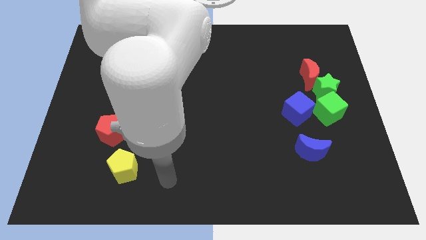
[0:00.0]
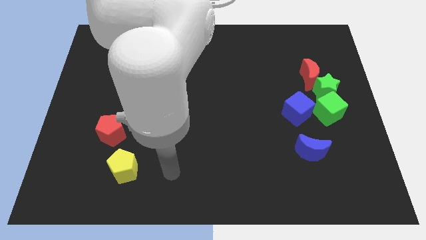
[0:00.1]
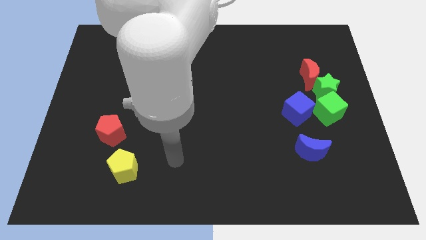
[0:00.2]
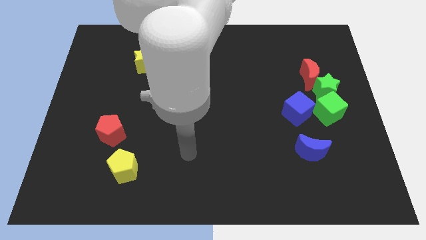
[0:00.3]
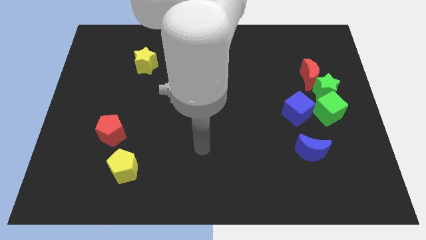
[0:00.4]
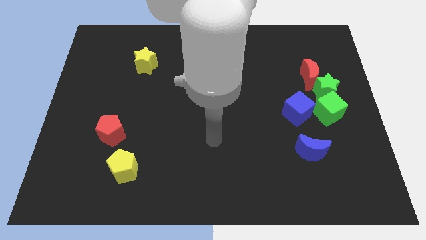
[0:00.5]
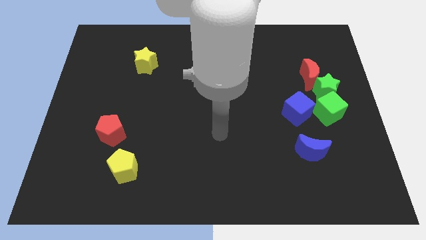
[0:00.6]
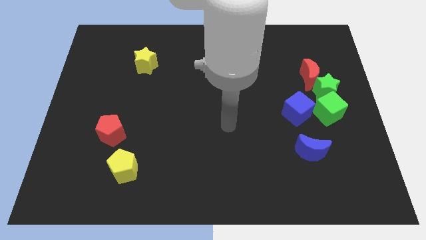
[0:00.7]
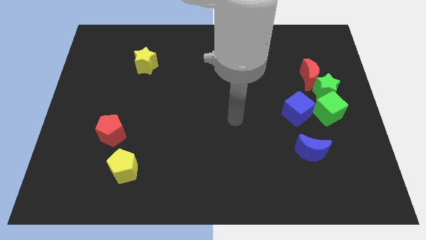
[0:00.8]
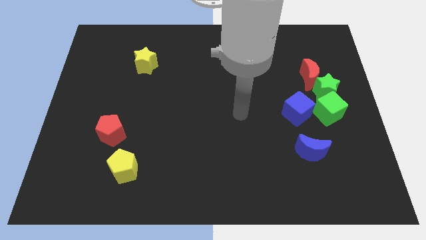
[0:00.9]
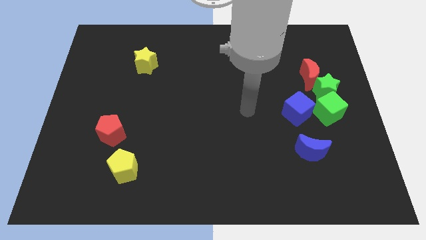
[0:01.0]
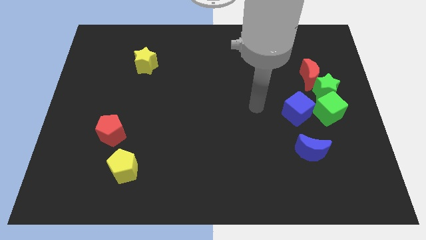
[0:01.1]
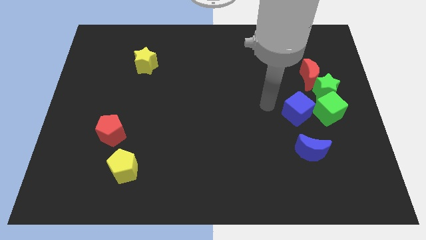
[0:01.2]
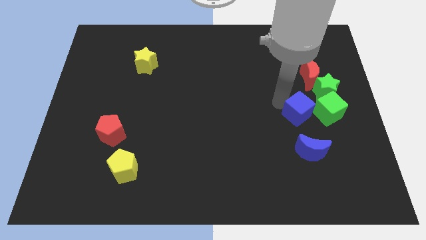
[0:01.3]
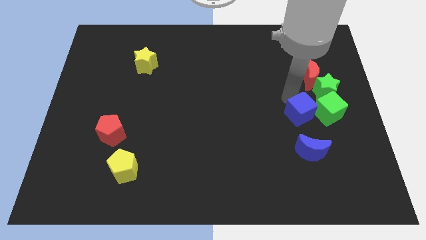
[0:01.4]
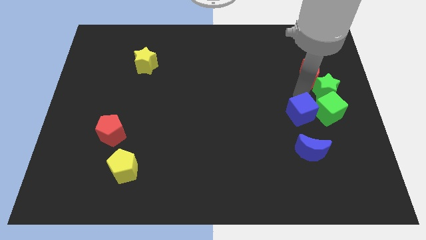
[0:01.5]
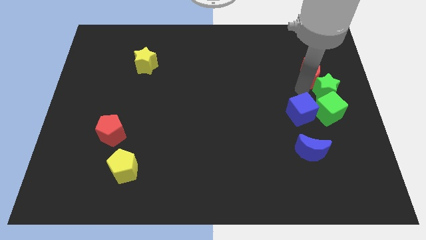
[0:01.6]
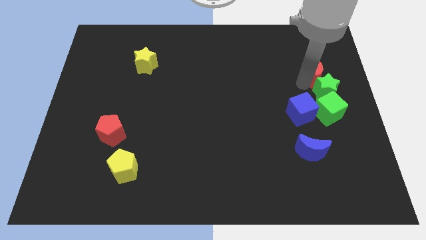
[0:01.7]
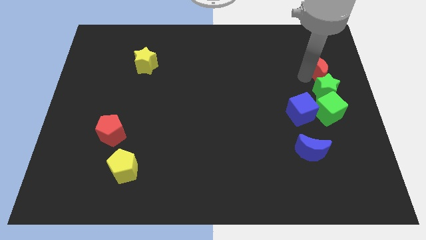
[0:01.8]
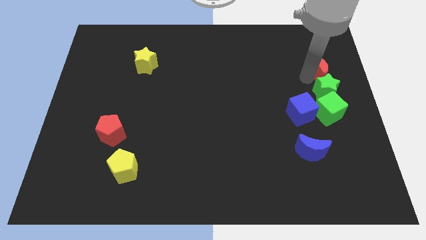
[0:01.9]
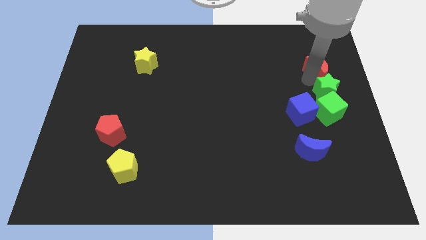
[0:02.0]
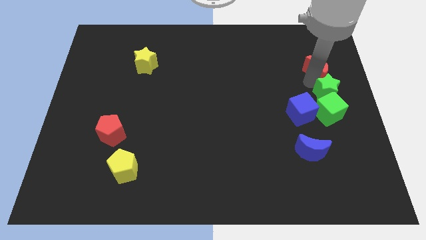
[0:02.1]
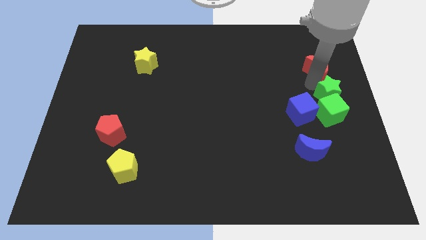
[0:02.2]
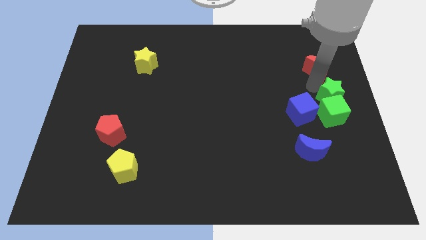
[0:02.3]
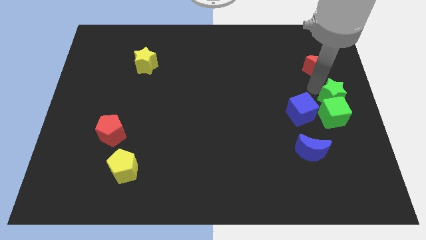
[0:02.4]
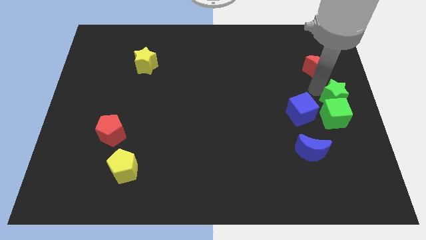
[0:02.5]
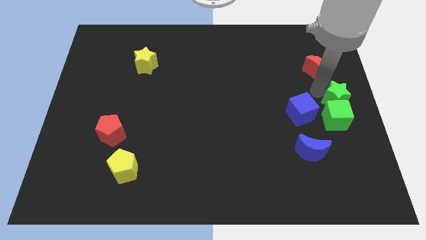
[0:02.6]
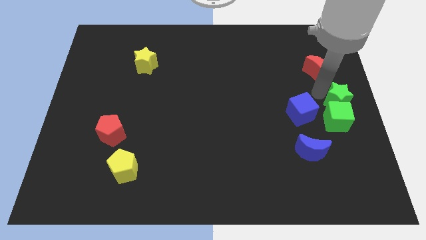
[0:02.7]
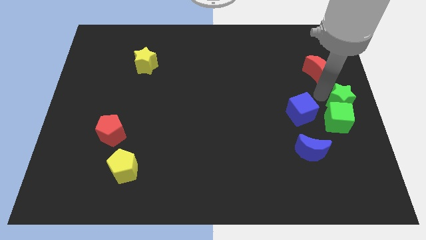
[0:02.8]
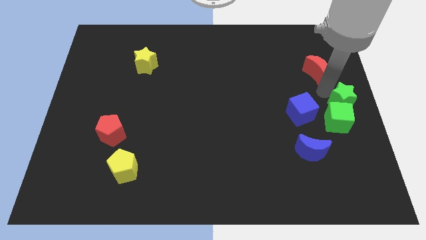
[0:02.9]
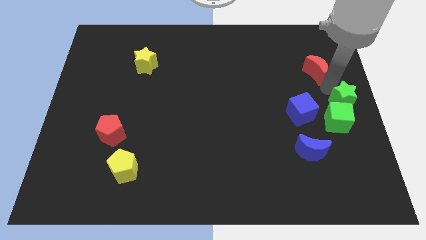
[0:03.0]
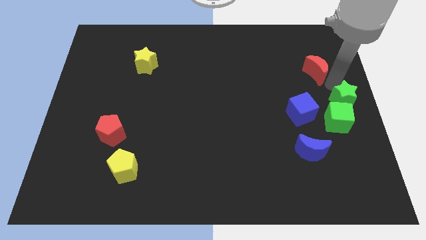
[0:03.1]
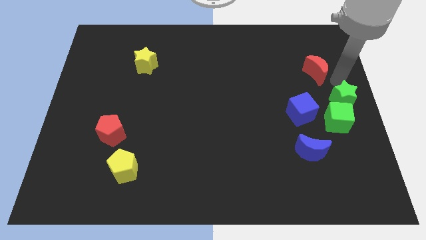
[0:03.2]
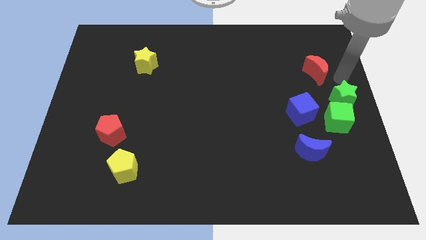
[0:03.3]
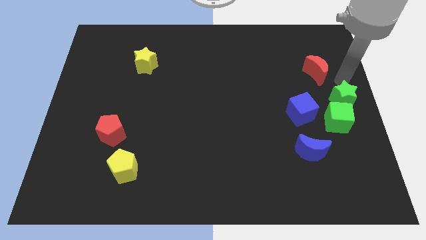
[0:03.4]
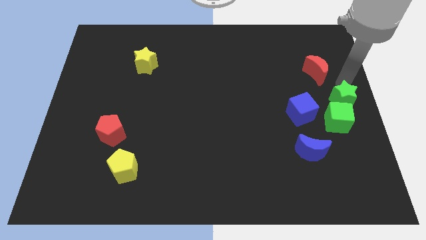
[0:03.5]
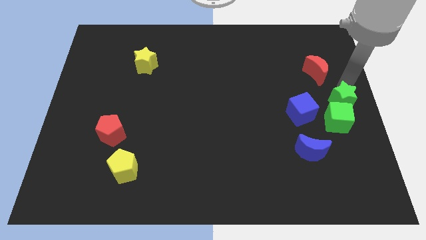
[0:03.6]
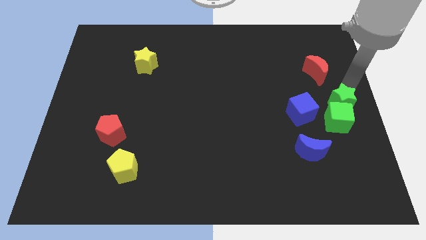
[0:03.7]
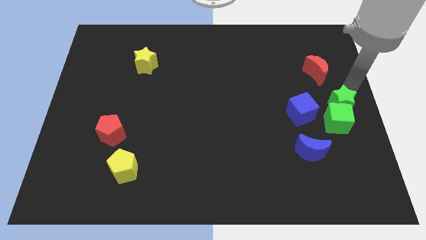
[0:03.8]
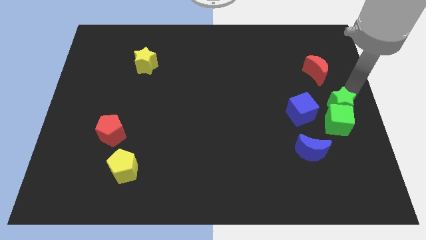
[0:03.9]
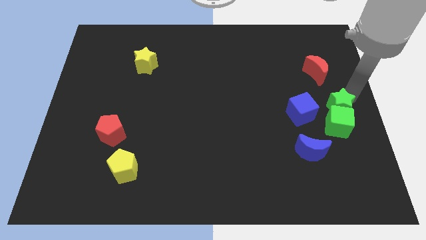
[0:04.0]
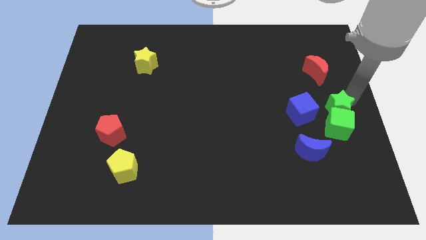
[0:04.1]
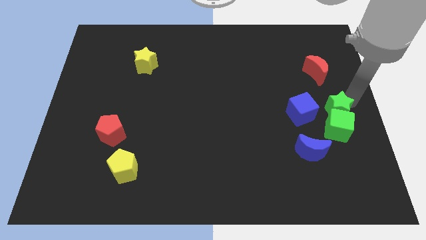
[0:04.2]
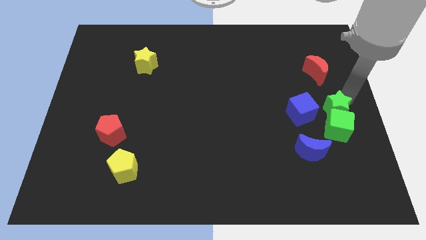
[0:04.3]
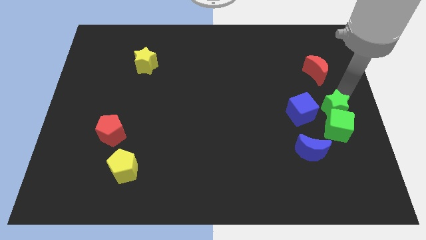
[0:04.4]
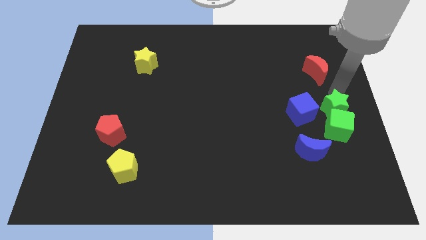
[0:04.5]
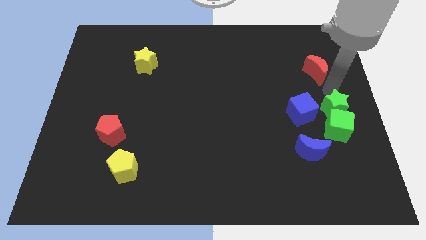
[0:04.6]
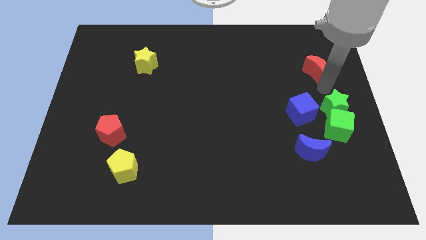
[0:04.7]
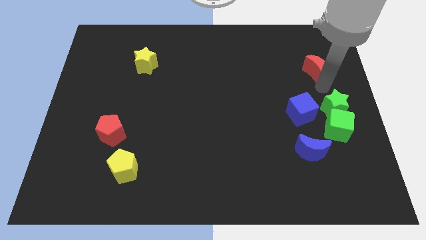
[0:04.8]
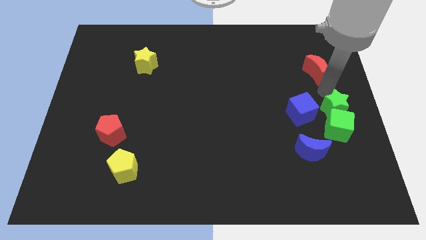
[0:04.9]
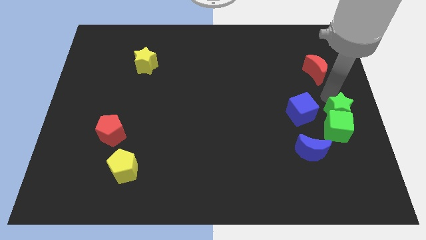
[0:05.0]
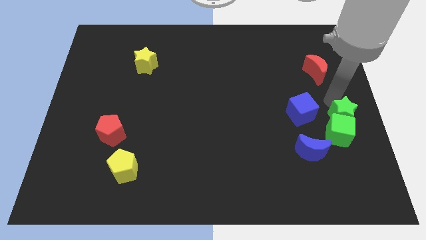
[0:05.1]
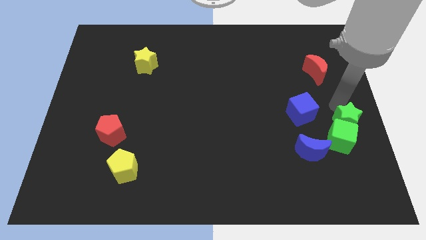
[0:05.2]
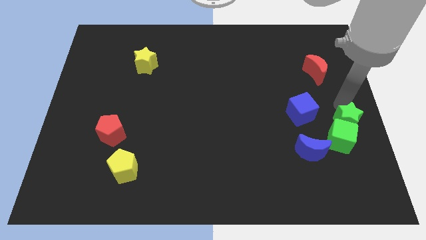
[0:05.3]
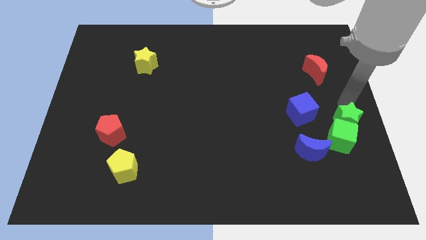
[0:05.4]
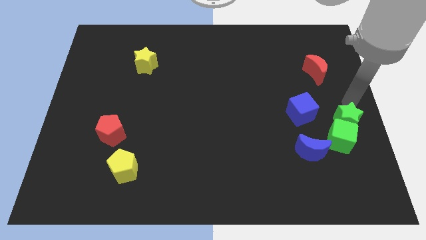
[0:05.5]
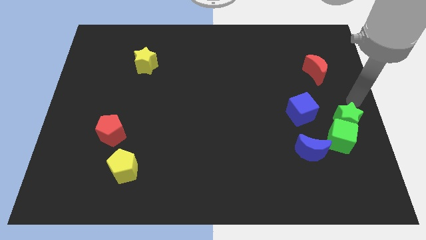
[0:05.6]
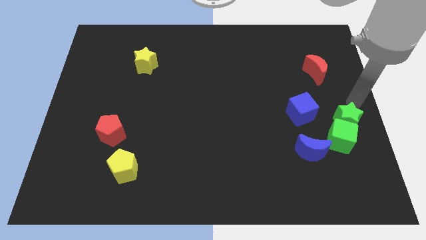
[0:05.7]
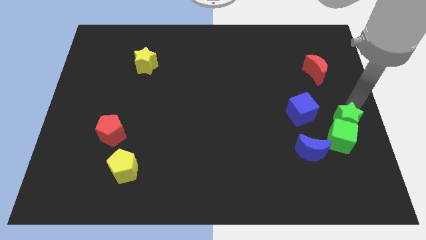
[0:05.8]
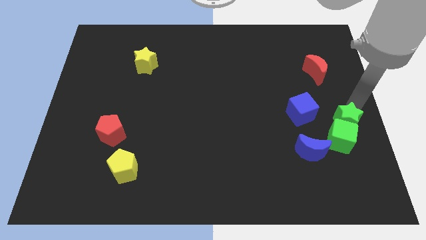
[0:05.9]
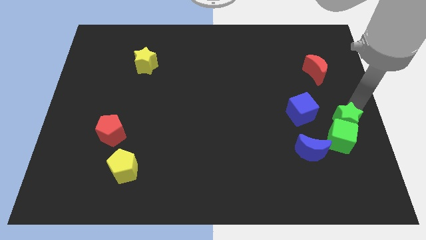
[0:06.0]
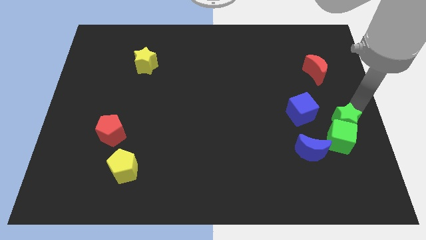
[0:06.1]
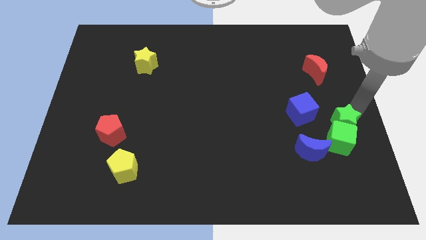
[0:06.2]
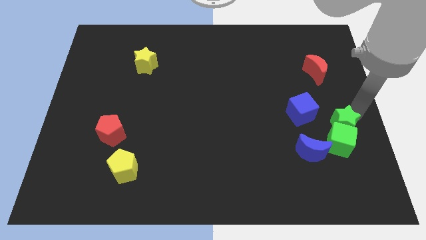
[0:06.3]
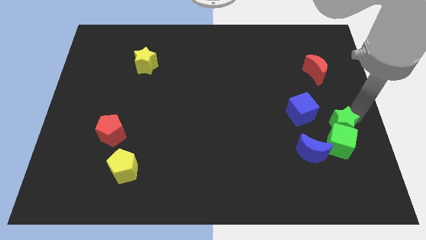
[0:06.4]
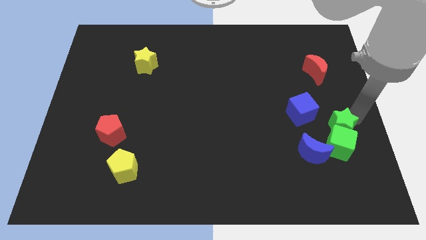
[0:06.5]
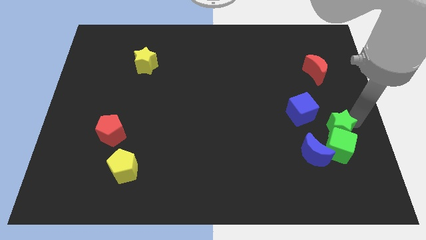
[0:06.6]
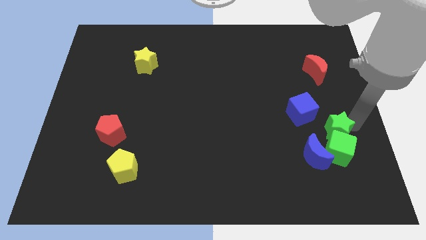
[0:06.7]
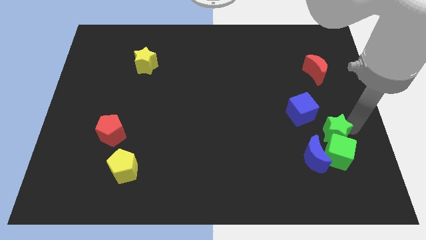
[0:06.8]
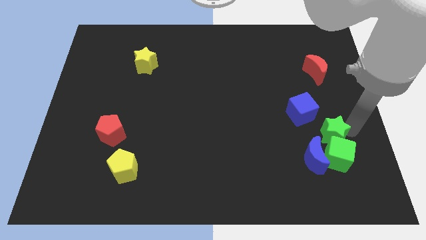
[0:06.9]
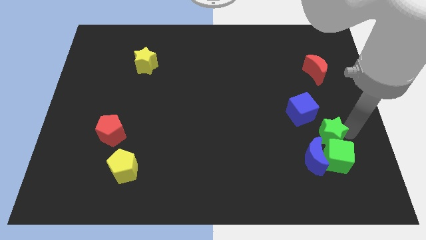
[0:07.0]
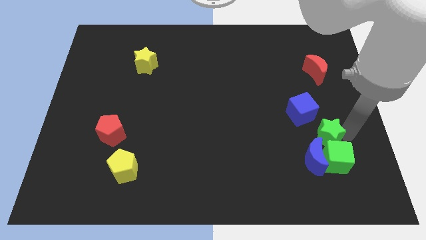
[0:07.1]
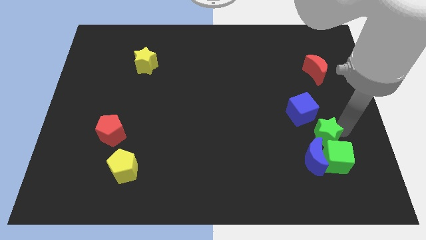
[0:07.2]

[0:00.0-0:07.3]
slide the green star below the blue cube
